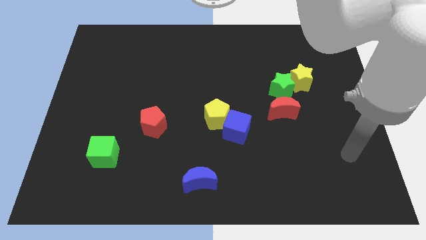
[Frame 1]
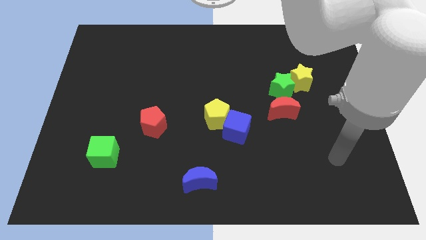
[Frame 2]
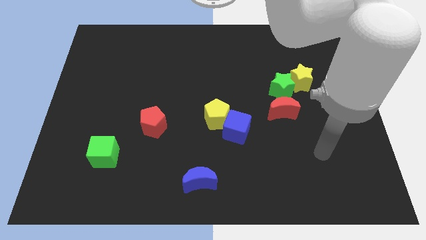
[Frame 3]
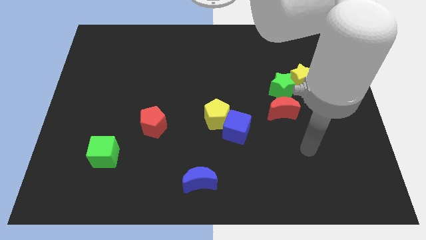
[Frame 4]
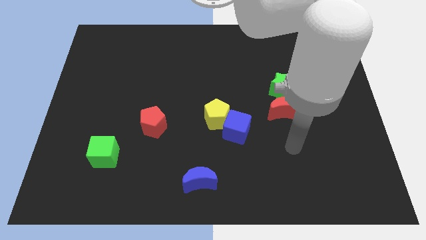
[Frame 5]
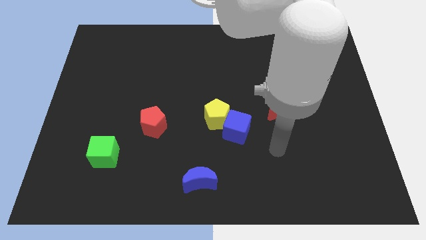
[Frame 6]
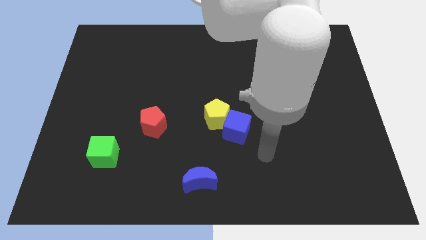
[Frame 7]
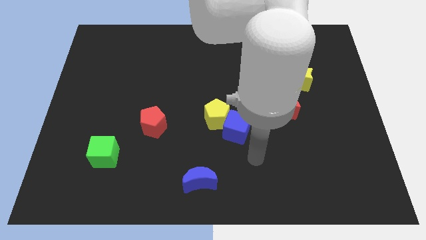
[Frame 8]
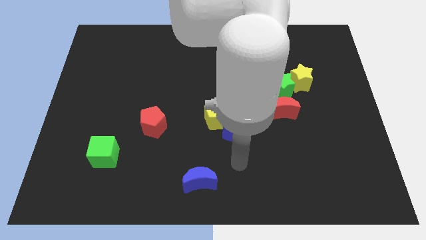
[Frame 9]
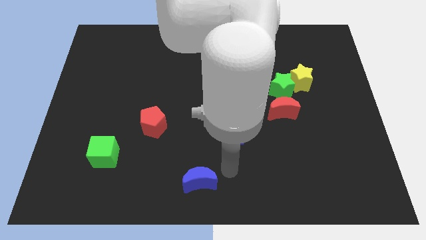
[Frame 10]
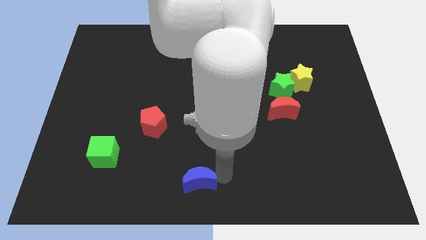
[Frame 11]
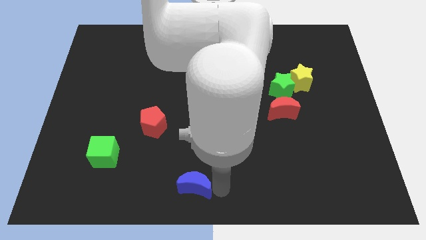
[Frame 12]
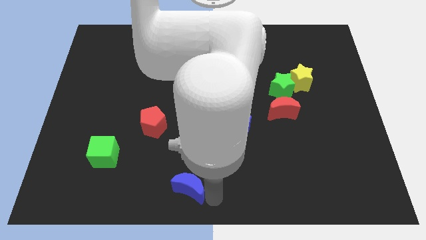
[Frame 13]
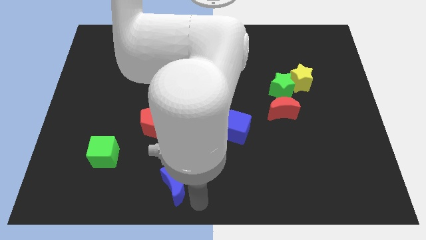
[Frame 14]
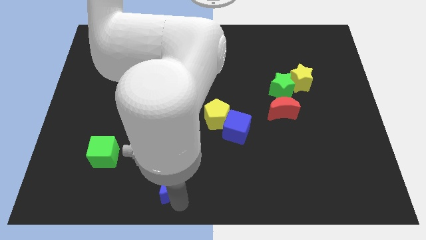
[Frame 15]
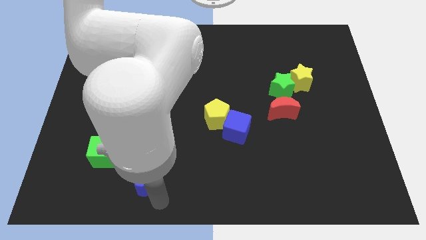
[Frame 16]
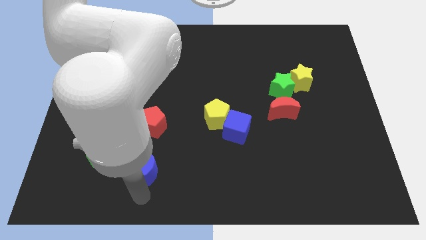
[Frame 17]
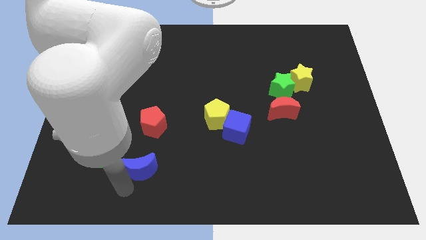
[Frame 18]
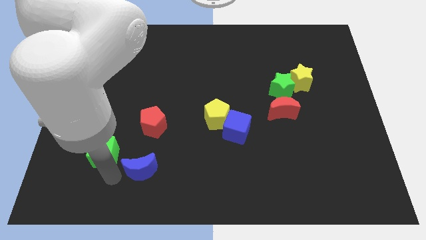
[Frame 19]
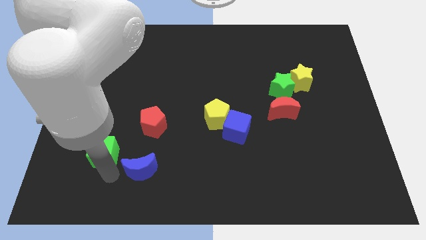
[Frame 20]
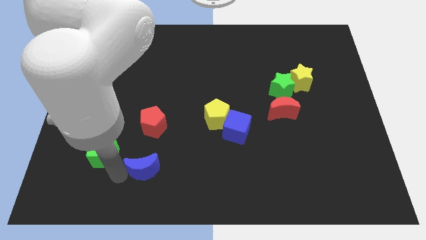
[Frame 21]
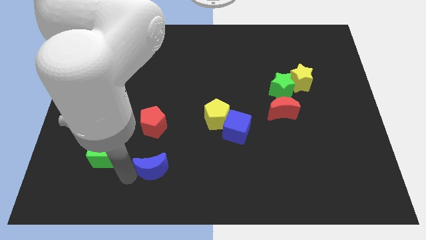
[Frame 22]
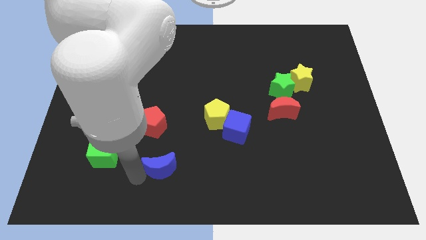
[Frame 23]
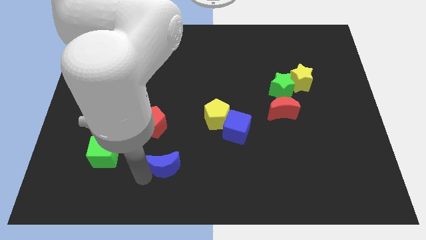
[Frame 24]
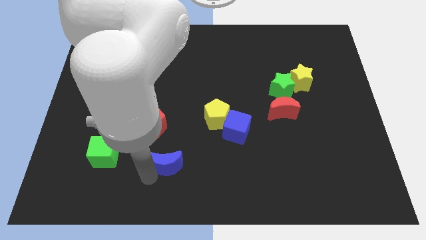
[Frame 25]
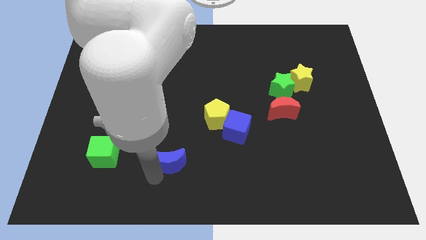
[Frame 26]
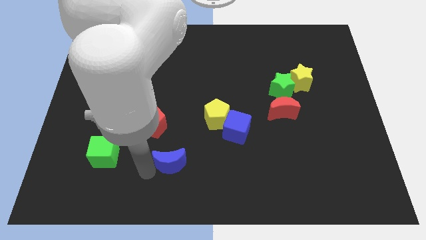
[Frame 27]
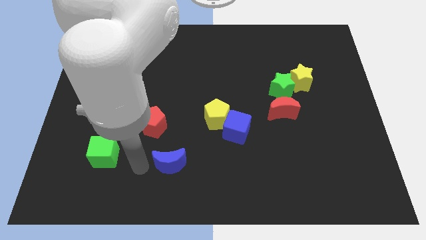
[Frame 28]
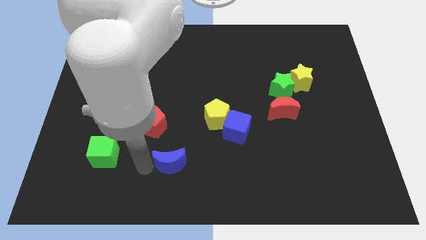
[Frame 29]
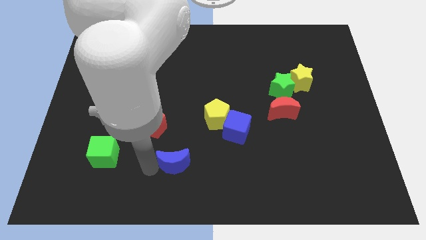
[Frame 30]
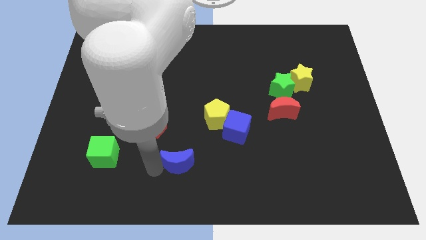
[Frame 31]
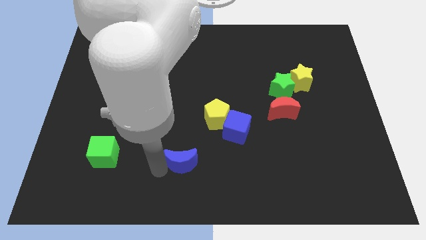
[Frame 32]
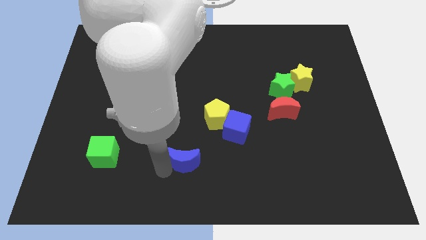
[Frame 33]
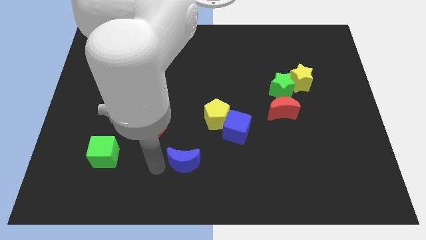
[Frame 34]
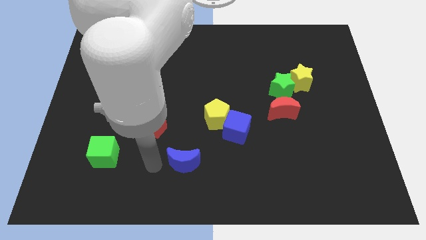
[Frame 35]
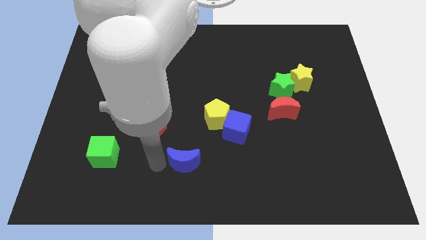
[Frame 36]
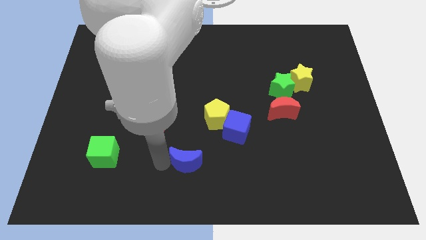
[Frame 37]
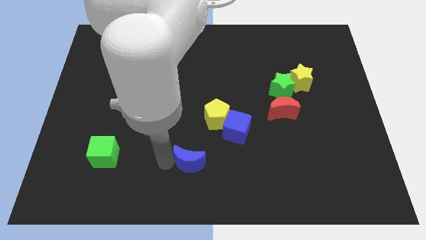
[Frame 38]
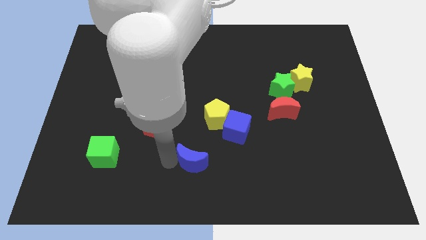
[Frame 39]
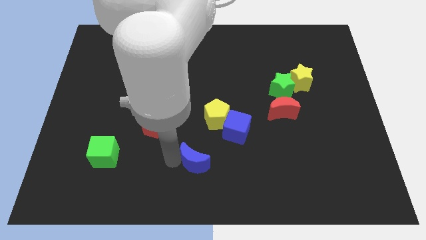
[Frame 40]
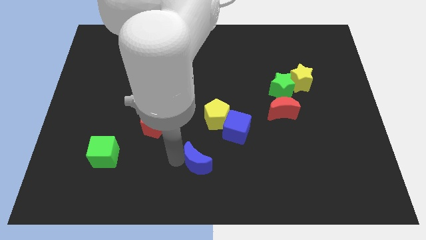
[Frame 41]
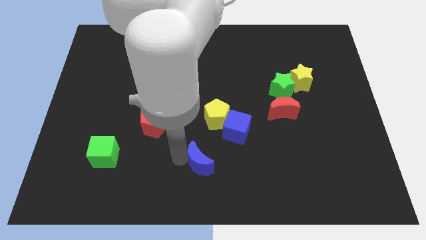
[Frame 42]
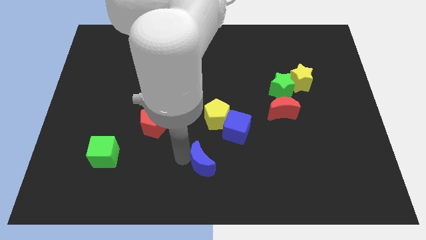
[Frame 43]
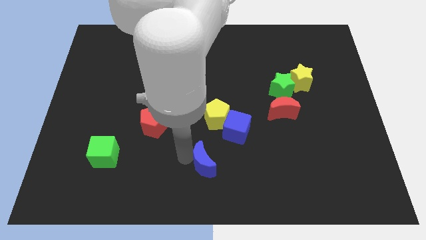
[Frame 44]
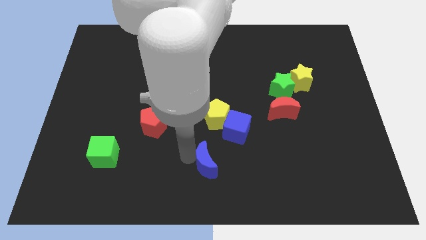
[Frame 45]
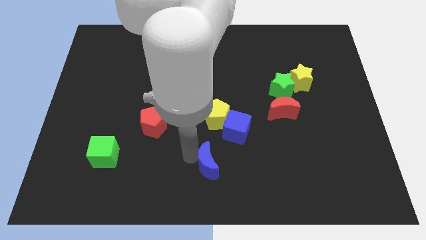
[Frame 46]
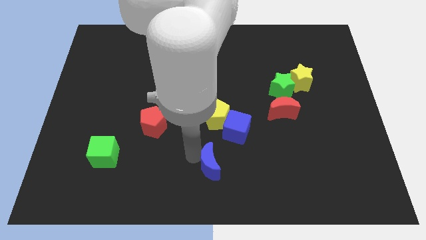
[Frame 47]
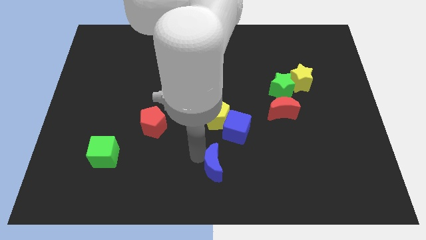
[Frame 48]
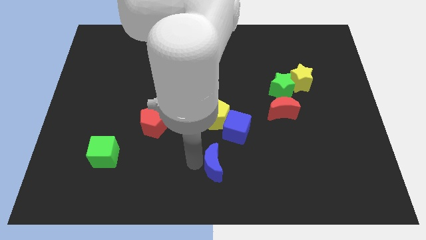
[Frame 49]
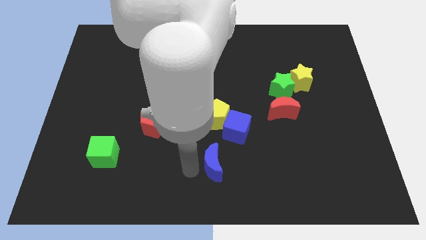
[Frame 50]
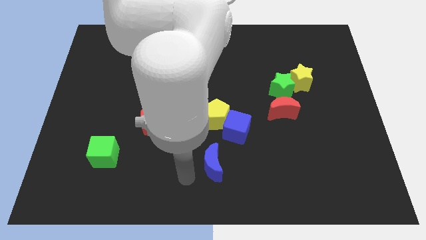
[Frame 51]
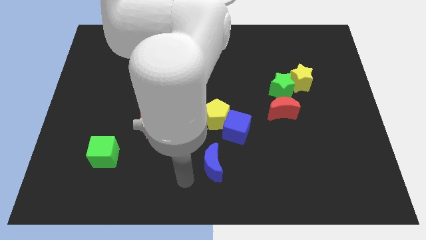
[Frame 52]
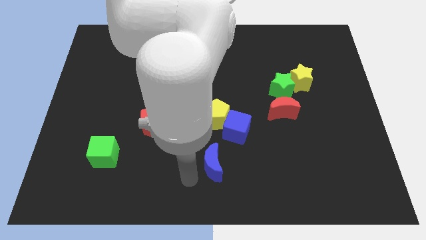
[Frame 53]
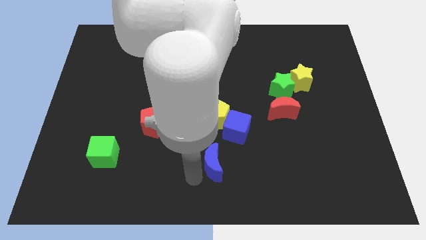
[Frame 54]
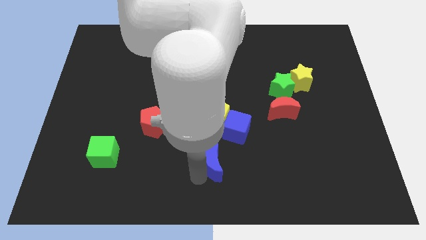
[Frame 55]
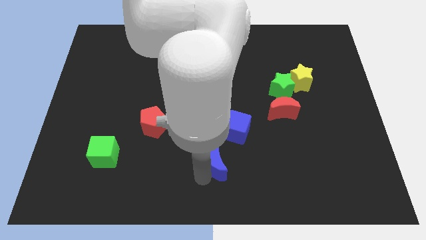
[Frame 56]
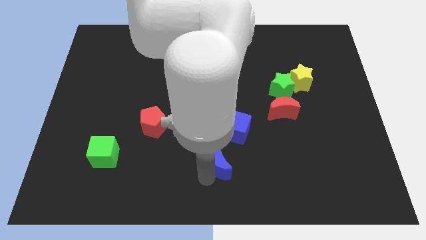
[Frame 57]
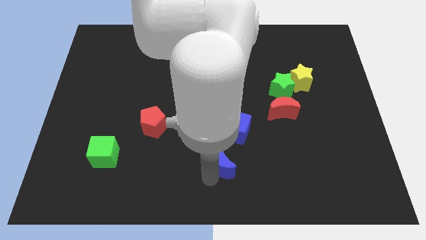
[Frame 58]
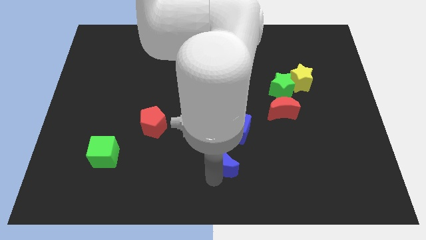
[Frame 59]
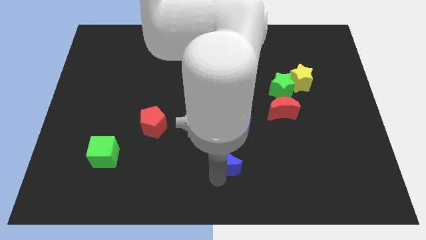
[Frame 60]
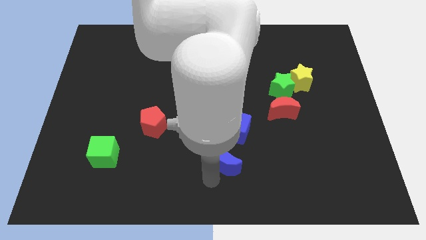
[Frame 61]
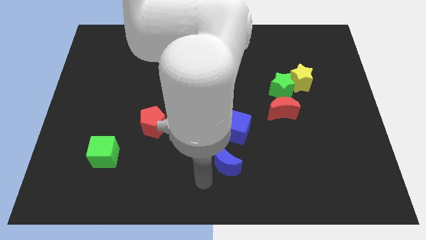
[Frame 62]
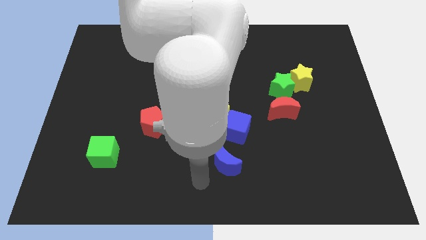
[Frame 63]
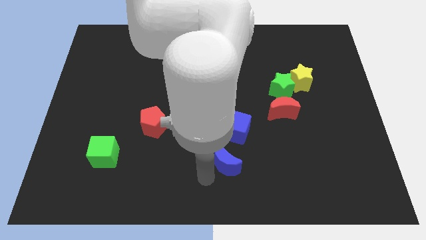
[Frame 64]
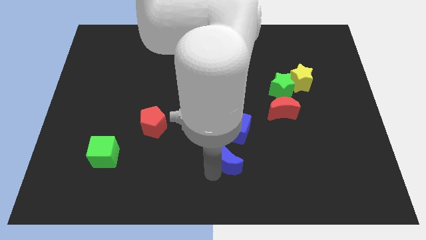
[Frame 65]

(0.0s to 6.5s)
move the blue moon upwards and to the right a little bit

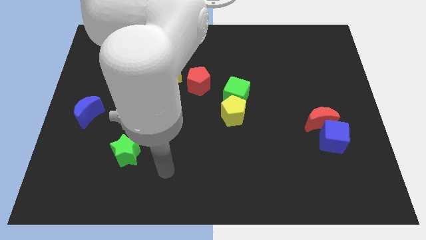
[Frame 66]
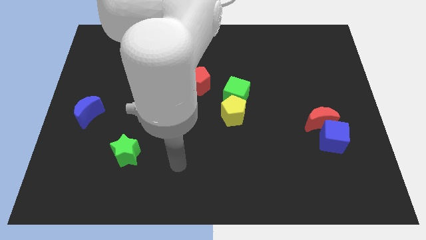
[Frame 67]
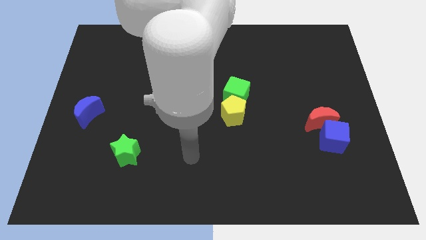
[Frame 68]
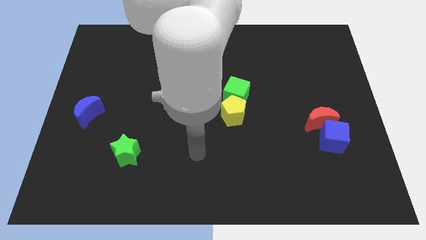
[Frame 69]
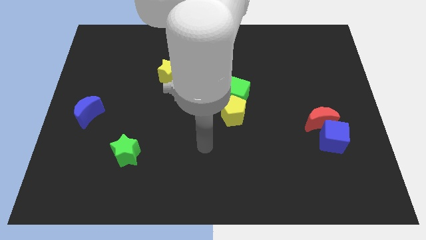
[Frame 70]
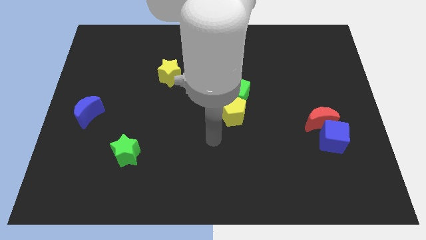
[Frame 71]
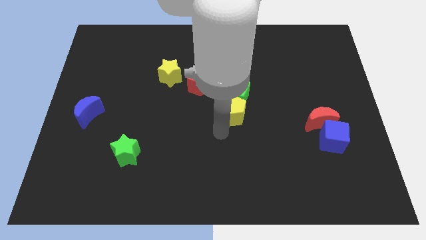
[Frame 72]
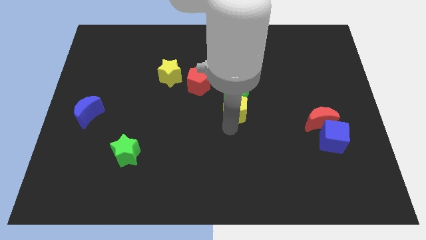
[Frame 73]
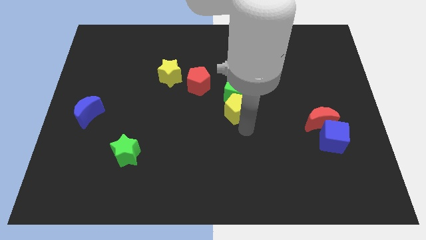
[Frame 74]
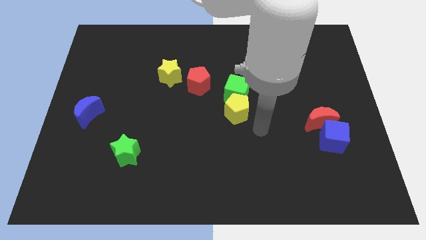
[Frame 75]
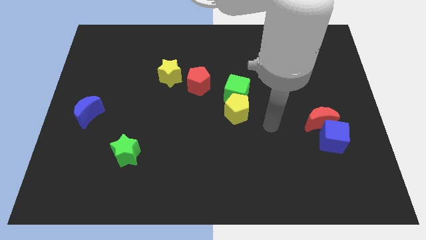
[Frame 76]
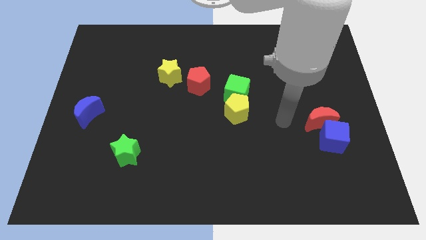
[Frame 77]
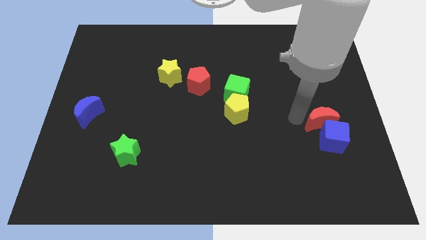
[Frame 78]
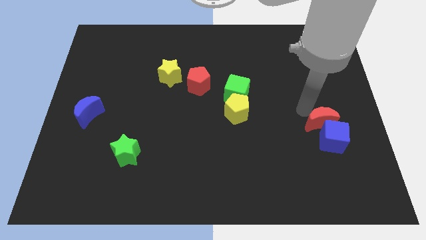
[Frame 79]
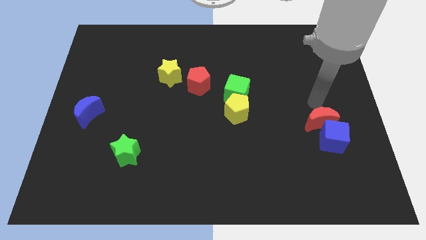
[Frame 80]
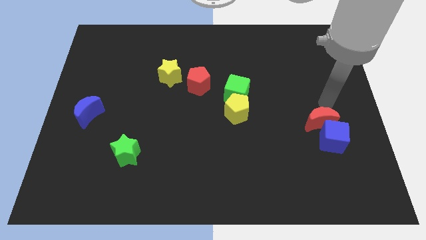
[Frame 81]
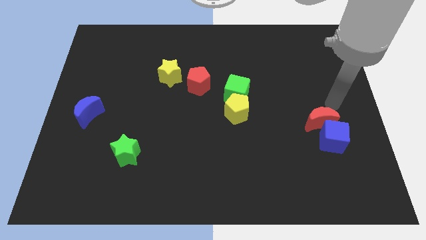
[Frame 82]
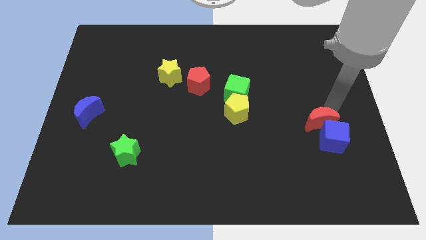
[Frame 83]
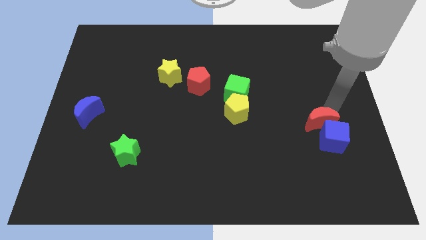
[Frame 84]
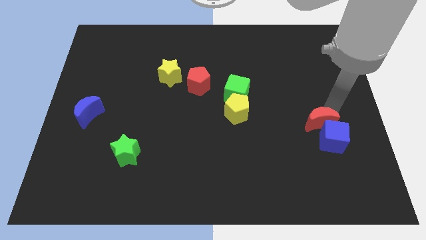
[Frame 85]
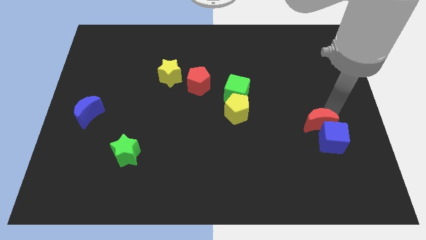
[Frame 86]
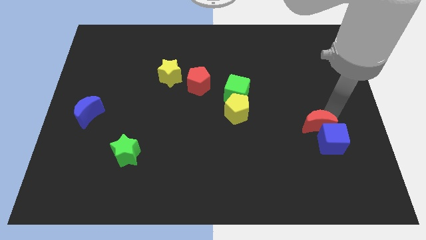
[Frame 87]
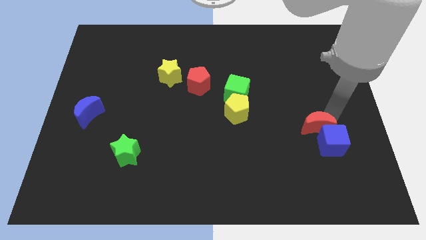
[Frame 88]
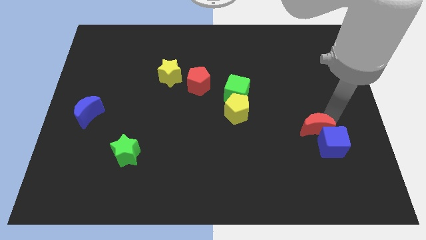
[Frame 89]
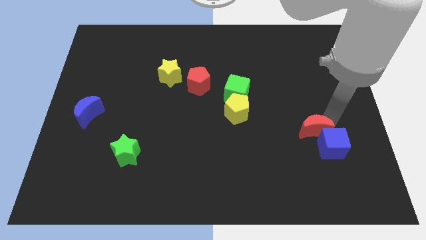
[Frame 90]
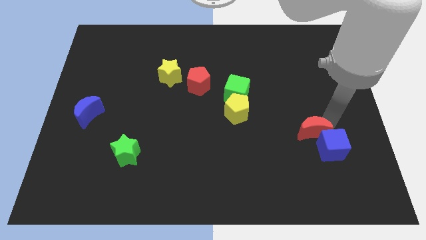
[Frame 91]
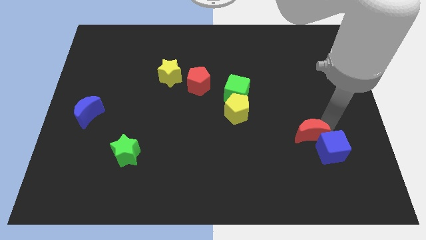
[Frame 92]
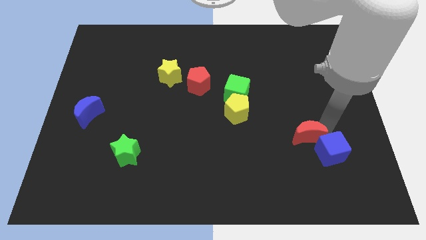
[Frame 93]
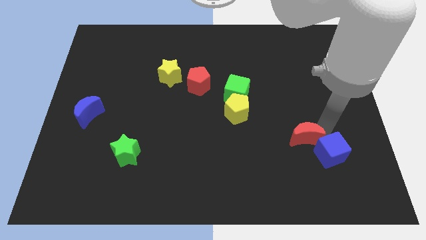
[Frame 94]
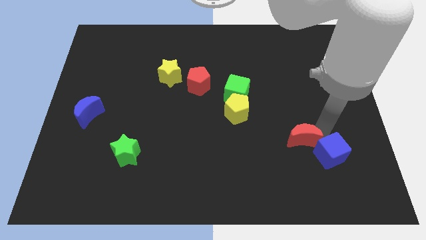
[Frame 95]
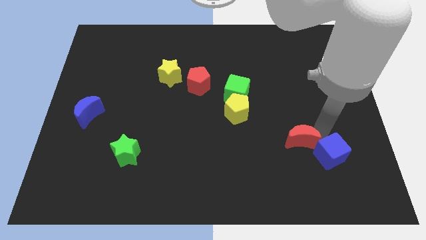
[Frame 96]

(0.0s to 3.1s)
slightly slide the red moon down and to the left
